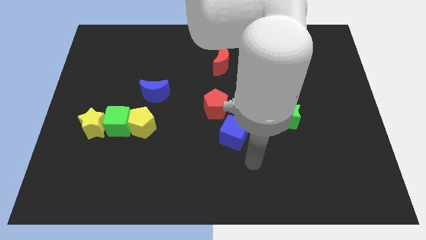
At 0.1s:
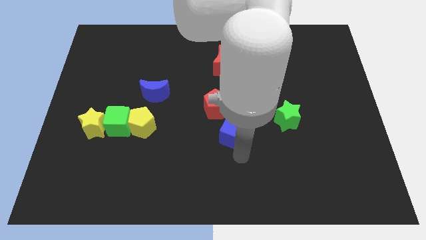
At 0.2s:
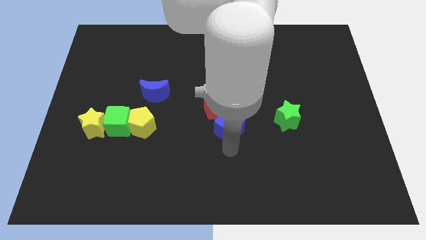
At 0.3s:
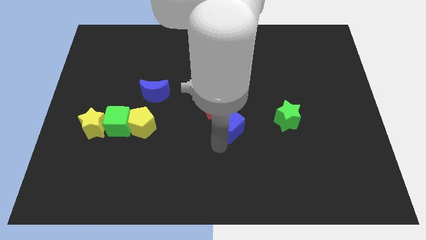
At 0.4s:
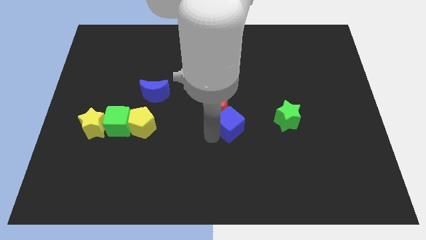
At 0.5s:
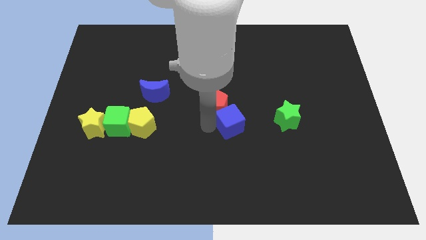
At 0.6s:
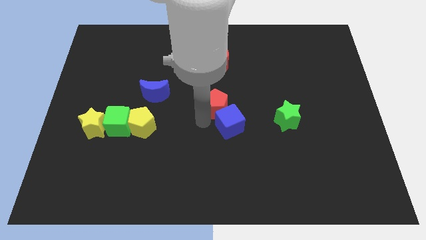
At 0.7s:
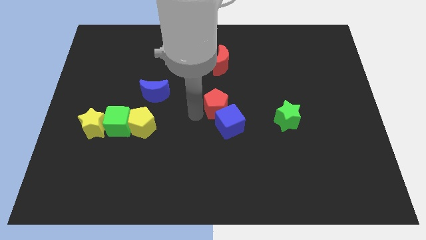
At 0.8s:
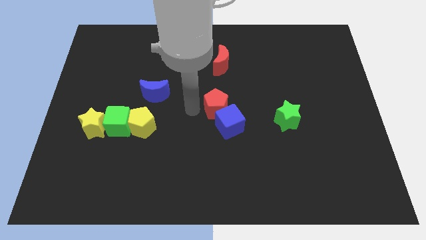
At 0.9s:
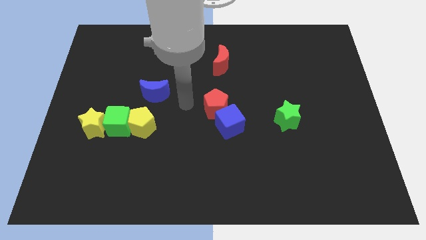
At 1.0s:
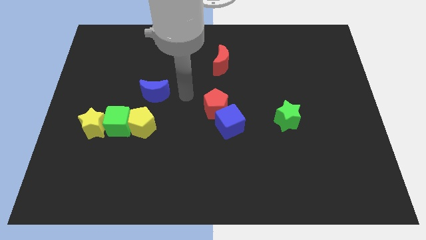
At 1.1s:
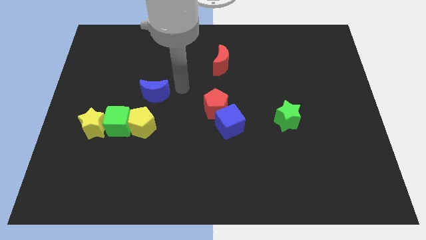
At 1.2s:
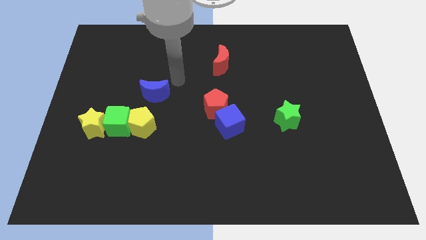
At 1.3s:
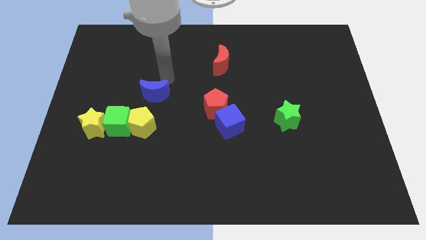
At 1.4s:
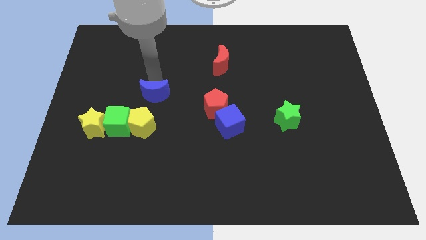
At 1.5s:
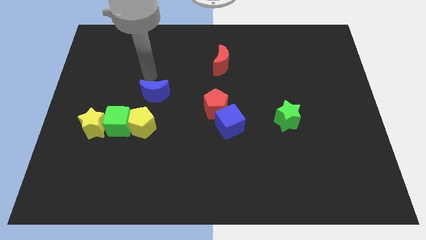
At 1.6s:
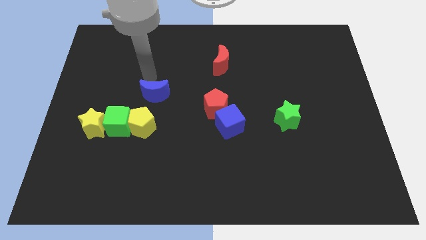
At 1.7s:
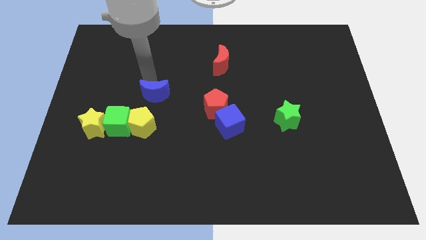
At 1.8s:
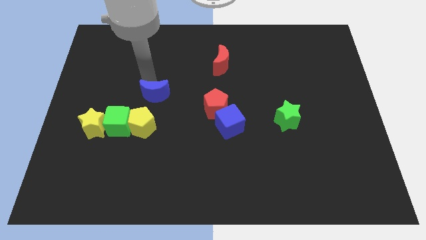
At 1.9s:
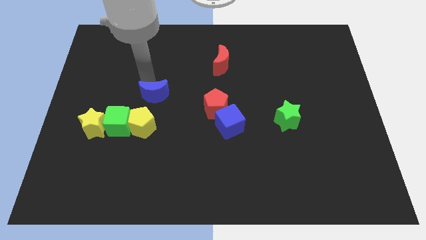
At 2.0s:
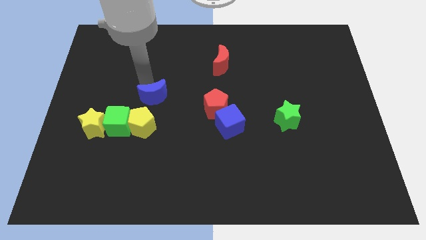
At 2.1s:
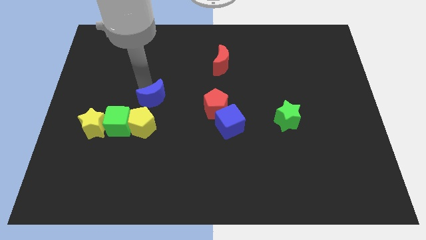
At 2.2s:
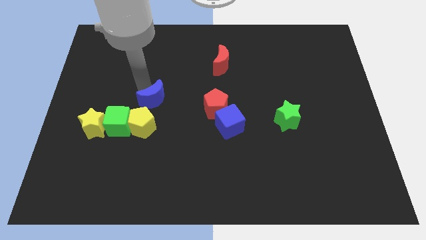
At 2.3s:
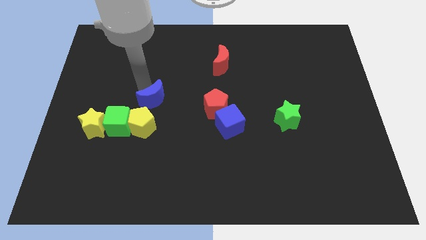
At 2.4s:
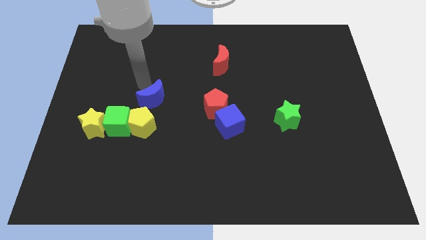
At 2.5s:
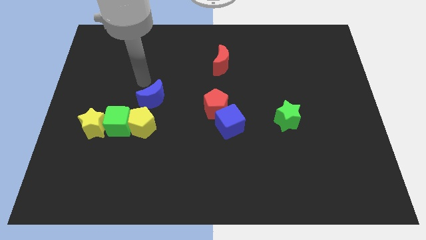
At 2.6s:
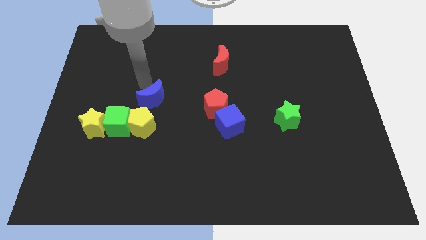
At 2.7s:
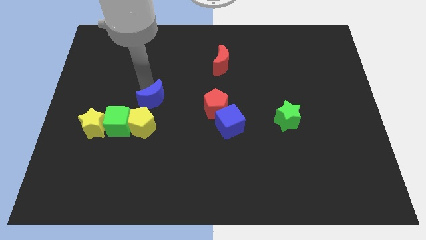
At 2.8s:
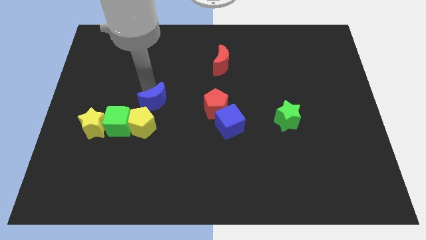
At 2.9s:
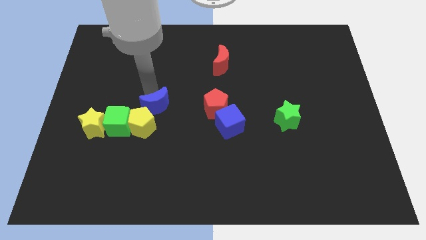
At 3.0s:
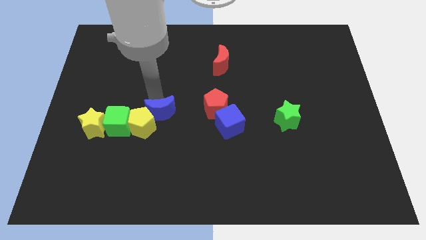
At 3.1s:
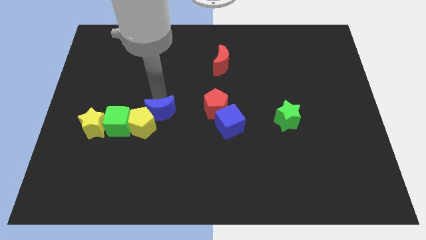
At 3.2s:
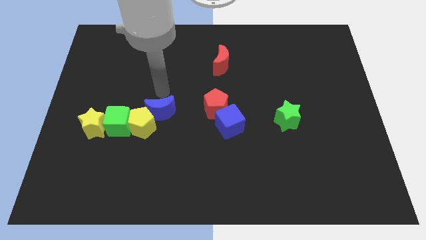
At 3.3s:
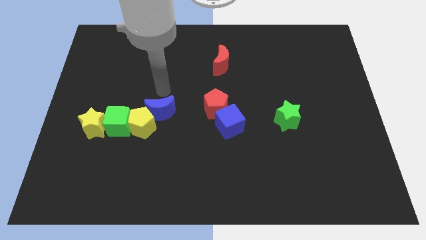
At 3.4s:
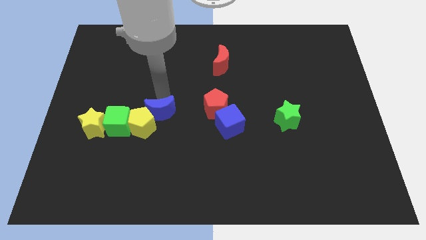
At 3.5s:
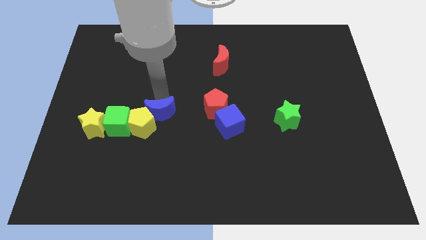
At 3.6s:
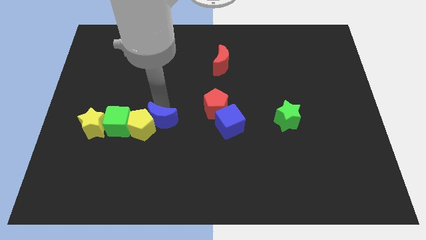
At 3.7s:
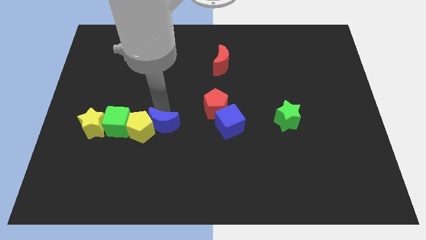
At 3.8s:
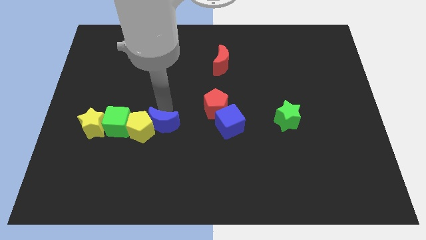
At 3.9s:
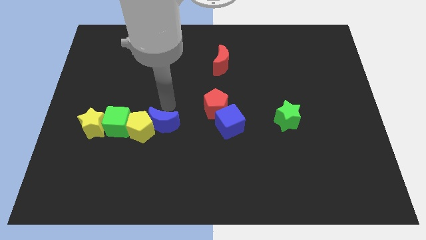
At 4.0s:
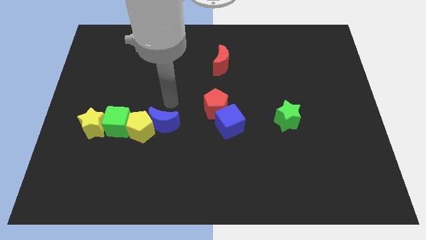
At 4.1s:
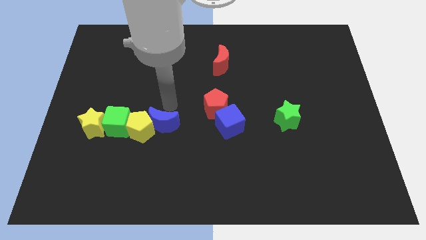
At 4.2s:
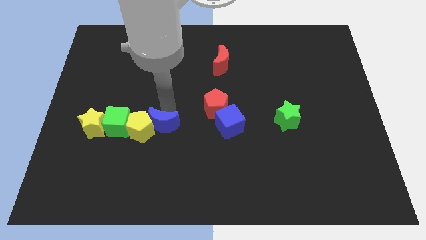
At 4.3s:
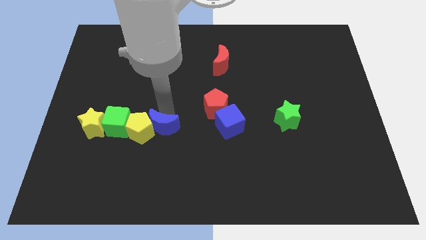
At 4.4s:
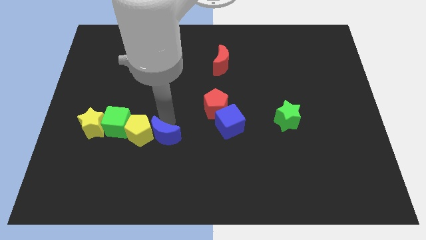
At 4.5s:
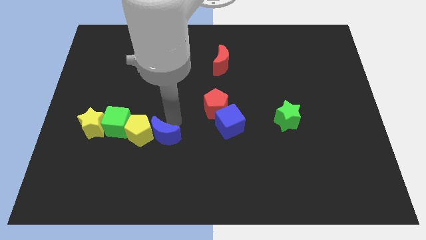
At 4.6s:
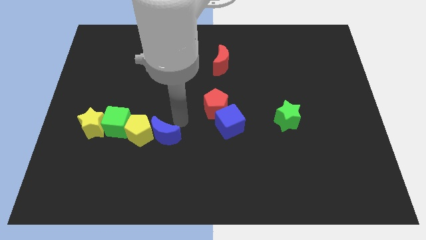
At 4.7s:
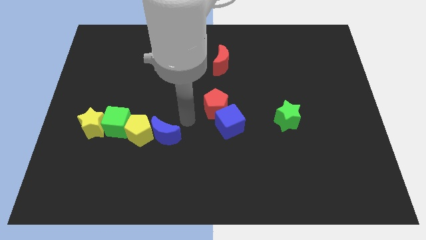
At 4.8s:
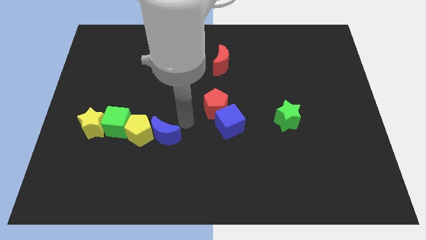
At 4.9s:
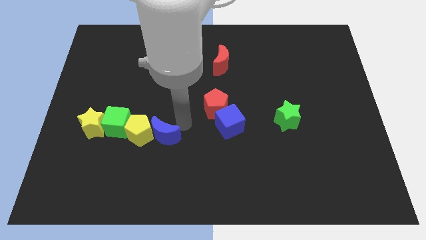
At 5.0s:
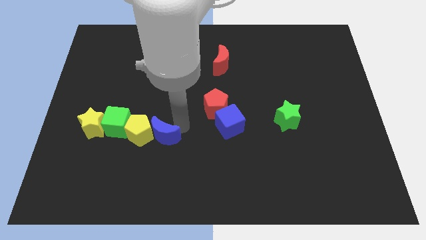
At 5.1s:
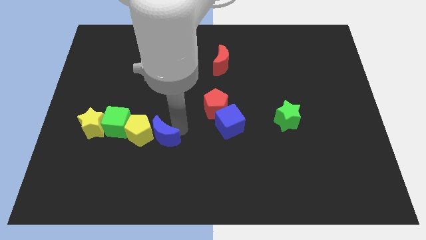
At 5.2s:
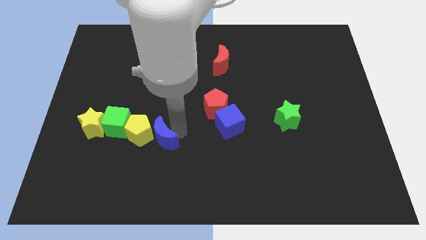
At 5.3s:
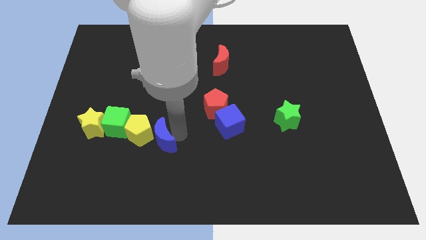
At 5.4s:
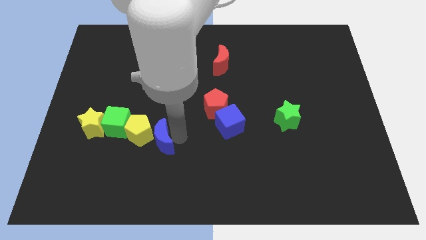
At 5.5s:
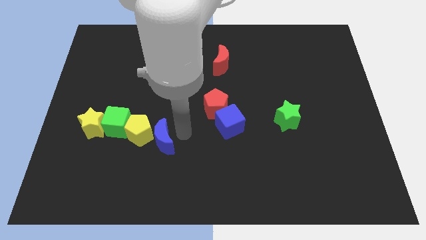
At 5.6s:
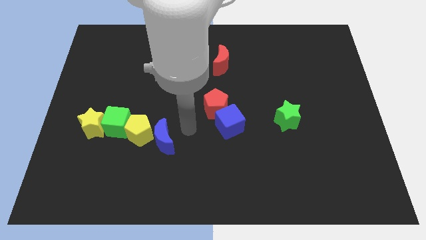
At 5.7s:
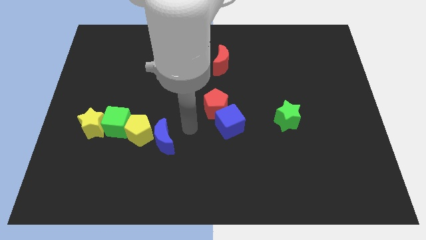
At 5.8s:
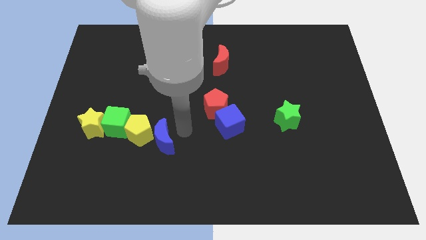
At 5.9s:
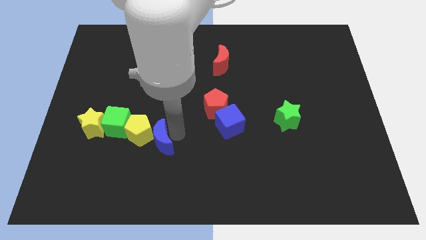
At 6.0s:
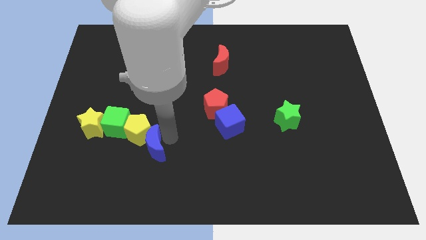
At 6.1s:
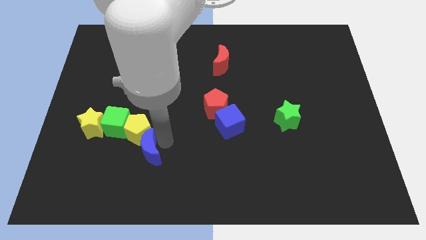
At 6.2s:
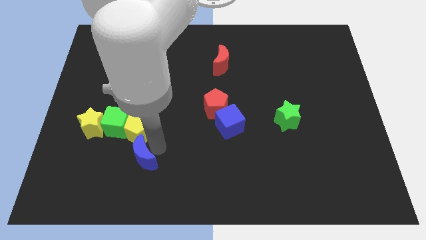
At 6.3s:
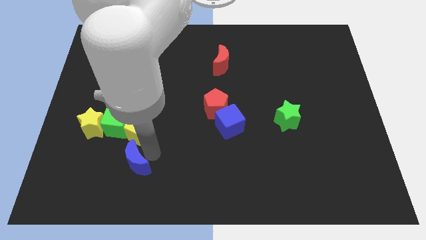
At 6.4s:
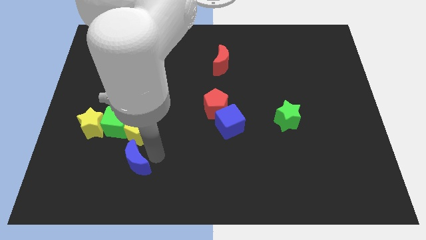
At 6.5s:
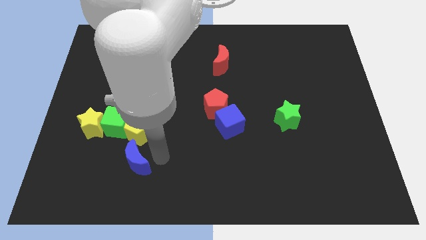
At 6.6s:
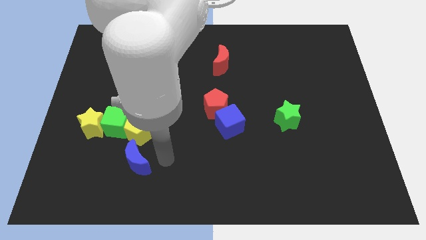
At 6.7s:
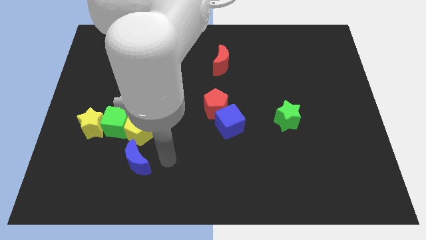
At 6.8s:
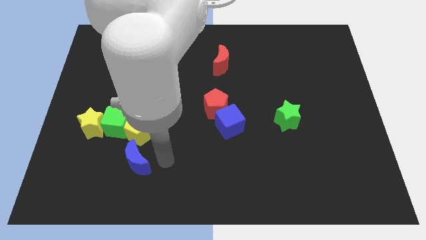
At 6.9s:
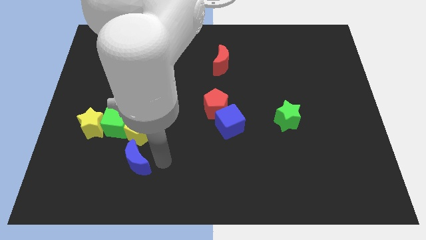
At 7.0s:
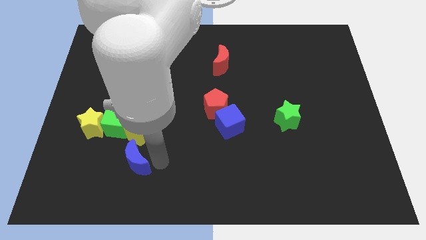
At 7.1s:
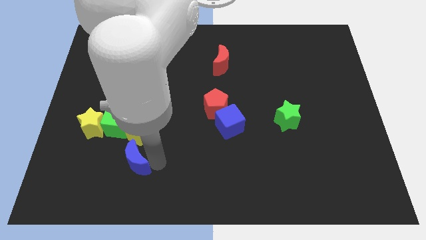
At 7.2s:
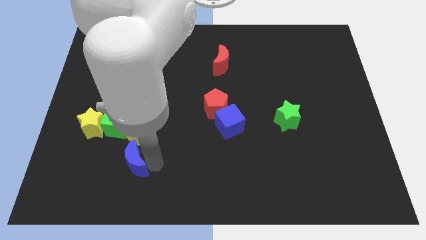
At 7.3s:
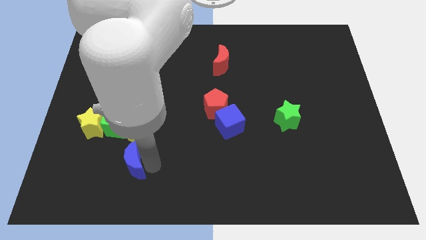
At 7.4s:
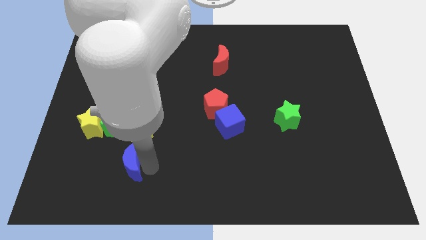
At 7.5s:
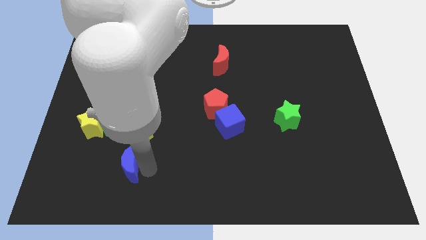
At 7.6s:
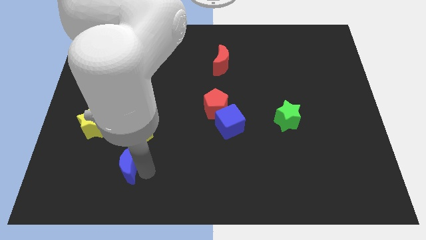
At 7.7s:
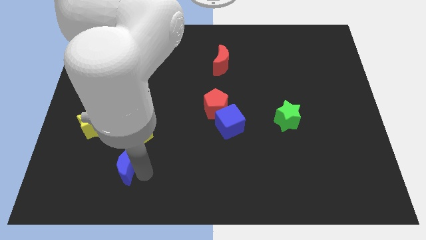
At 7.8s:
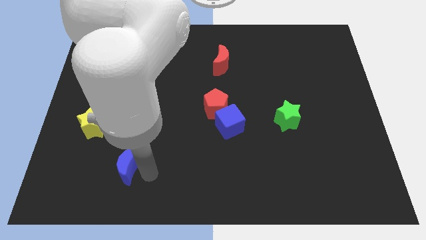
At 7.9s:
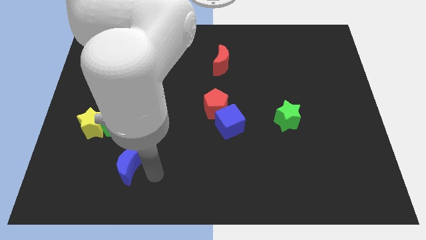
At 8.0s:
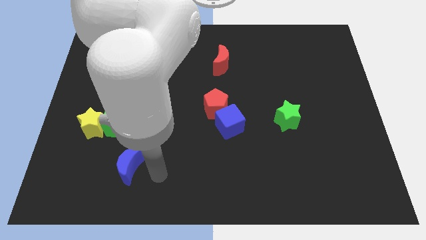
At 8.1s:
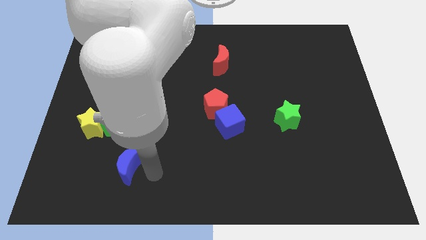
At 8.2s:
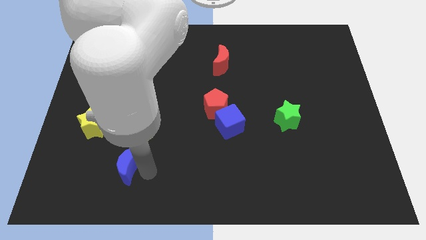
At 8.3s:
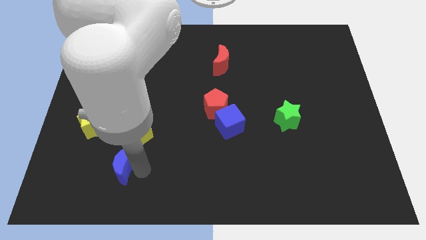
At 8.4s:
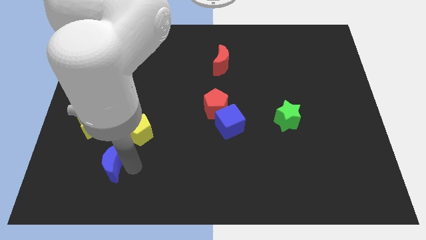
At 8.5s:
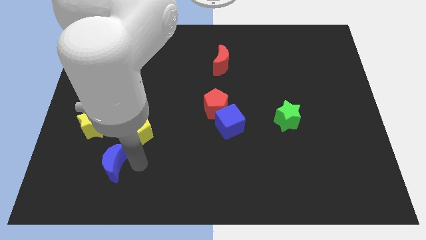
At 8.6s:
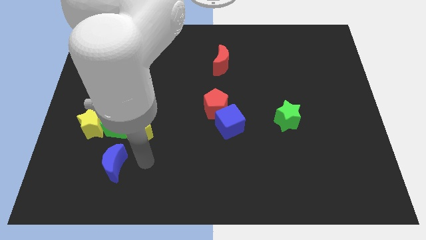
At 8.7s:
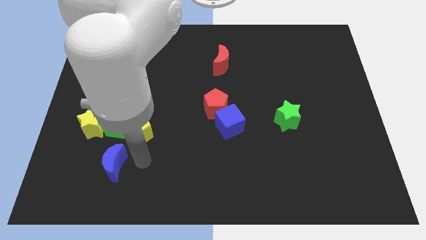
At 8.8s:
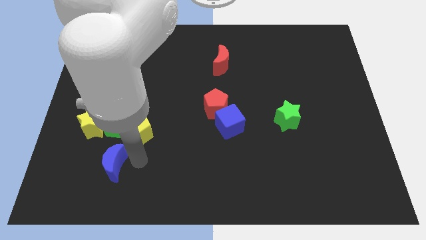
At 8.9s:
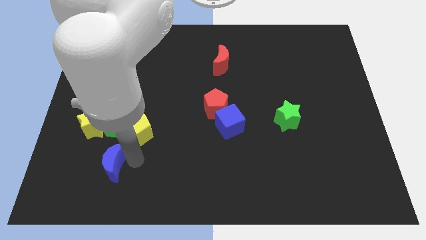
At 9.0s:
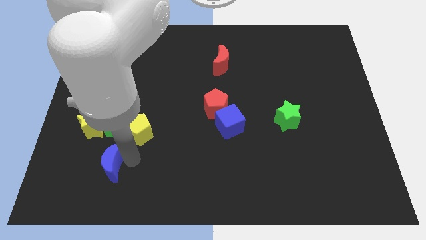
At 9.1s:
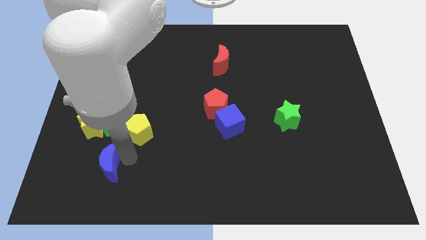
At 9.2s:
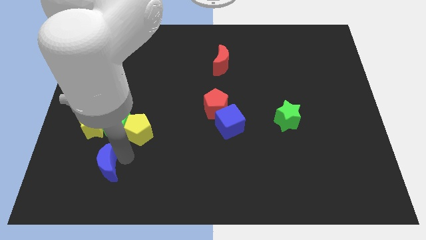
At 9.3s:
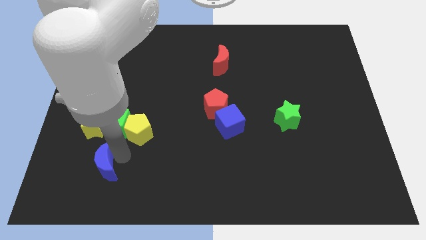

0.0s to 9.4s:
move the blue moon to the bottom side of the yellow star
